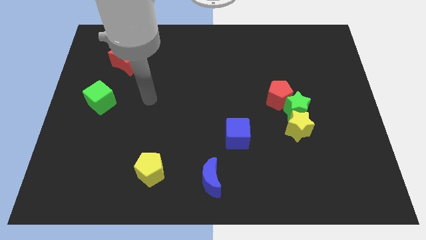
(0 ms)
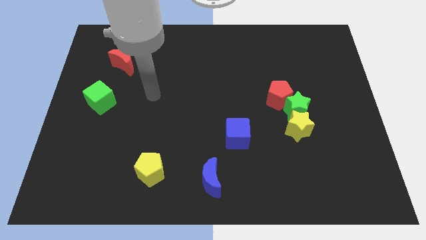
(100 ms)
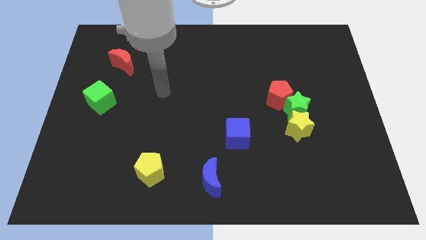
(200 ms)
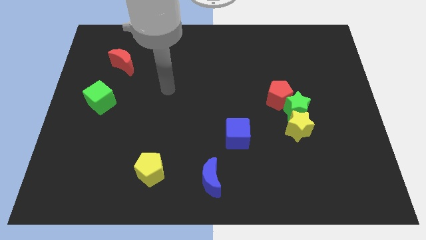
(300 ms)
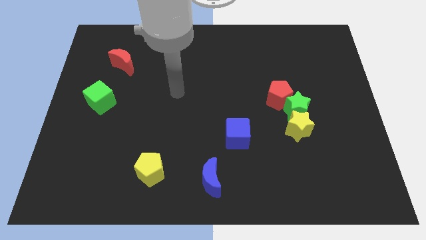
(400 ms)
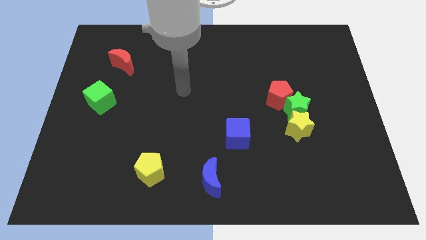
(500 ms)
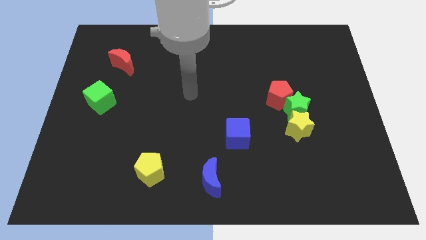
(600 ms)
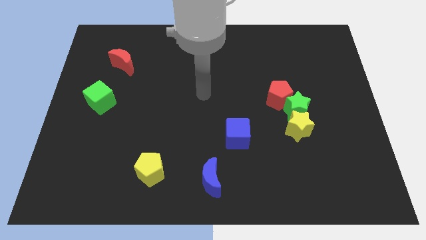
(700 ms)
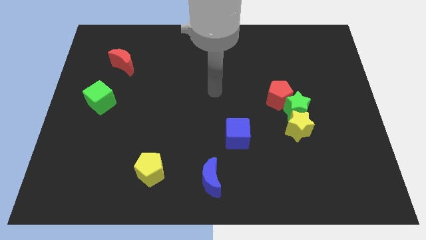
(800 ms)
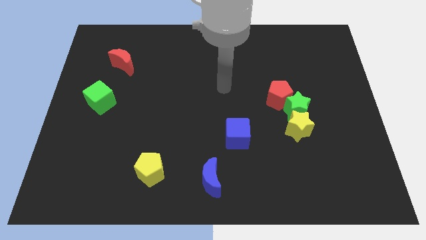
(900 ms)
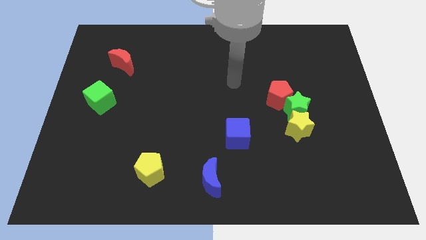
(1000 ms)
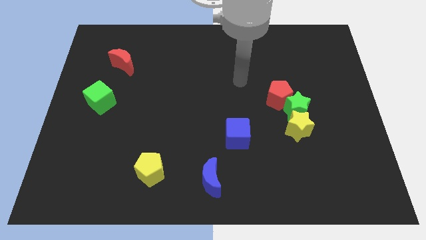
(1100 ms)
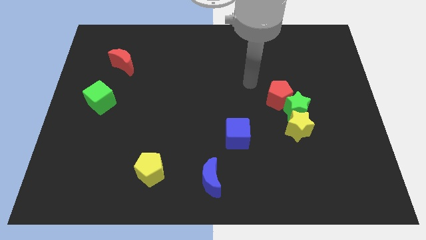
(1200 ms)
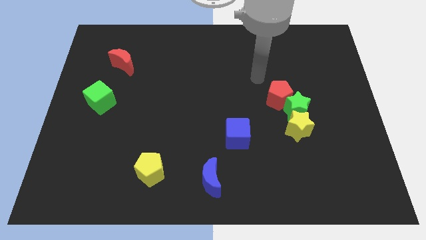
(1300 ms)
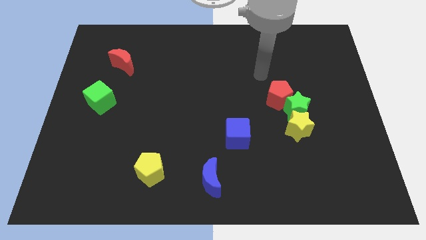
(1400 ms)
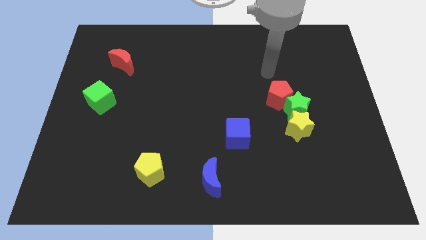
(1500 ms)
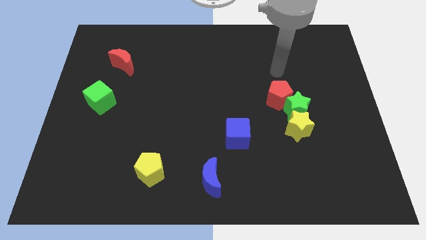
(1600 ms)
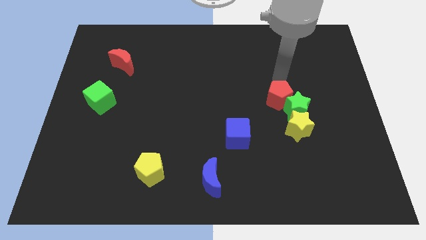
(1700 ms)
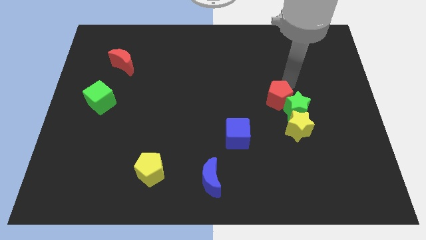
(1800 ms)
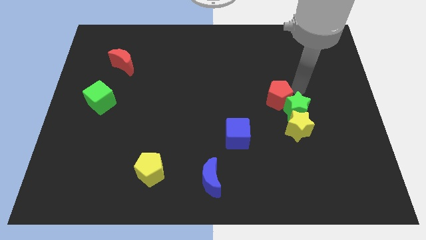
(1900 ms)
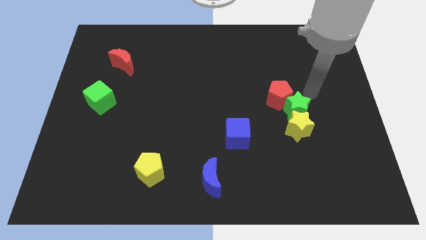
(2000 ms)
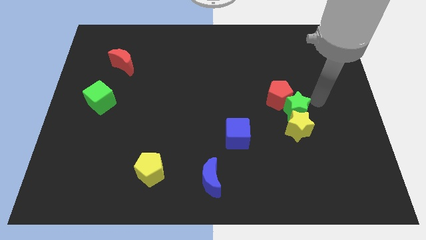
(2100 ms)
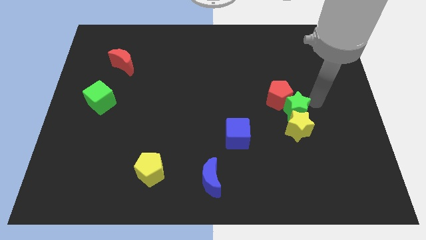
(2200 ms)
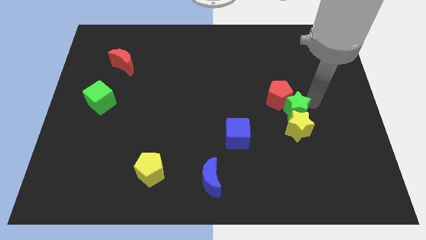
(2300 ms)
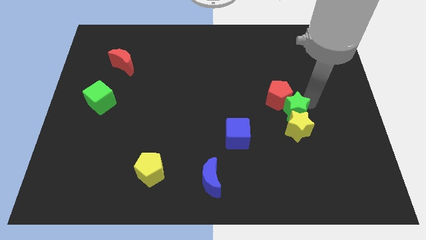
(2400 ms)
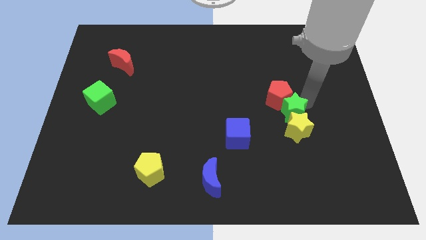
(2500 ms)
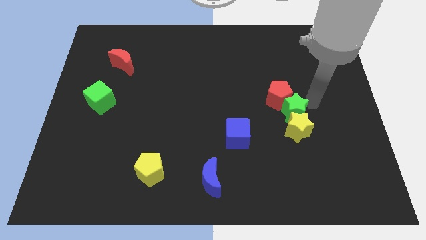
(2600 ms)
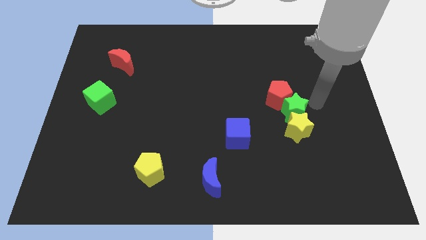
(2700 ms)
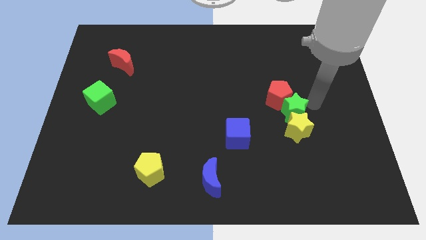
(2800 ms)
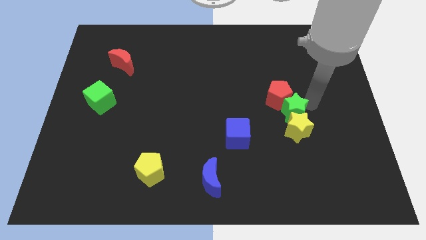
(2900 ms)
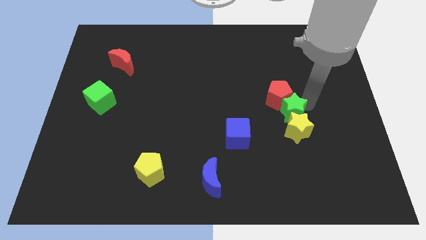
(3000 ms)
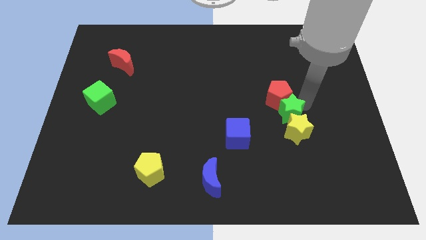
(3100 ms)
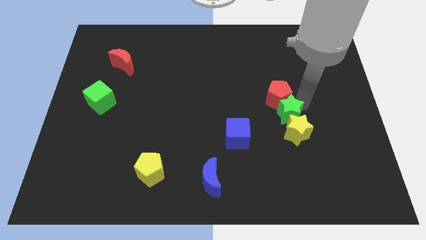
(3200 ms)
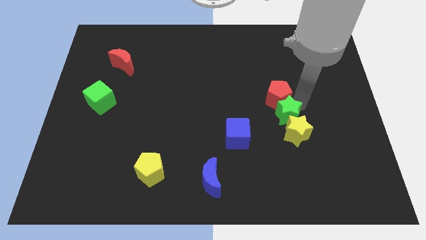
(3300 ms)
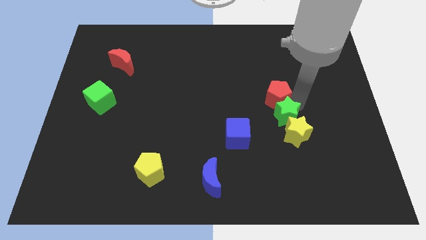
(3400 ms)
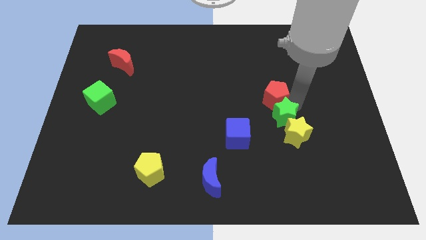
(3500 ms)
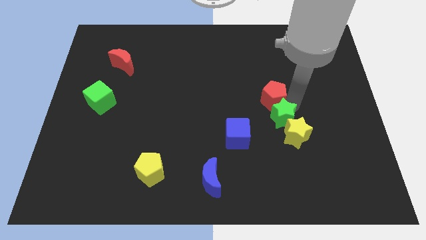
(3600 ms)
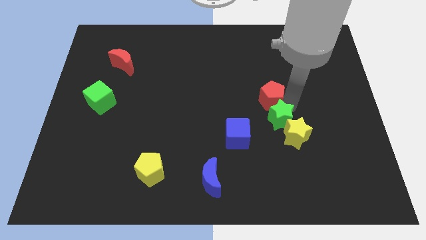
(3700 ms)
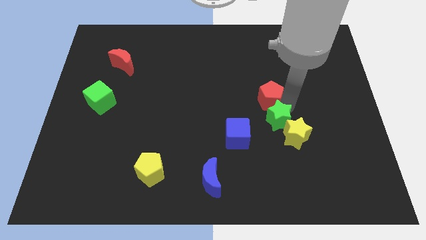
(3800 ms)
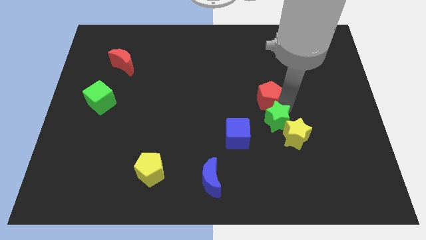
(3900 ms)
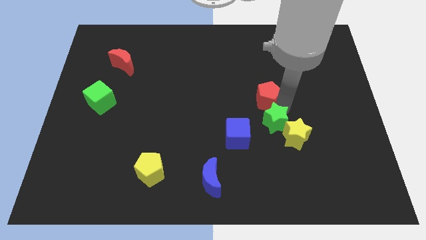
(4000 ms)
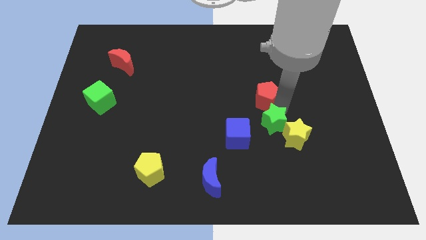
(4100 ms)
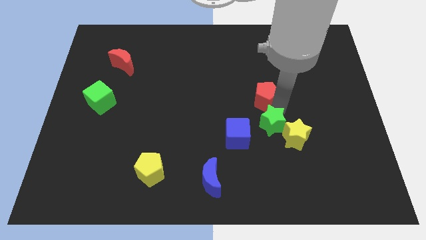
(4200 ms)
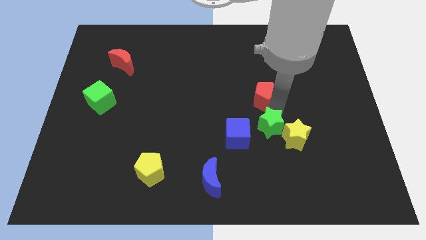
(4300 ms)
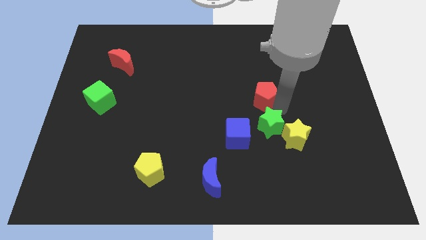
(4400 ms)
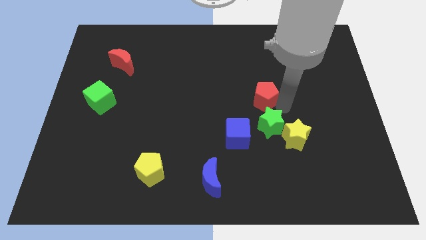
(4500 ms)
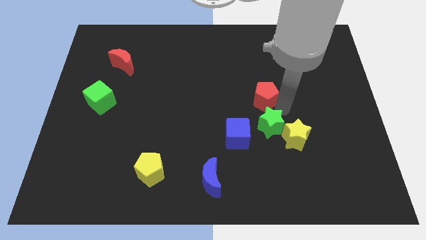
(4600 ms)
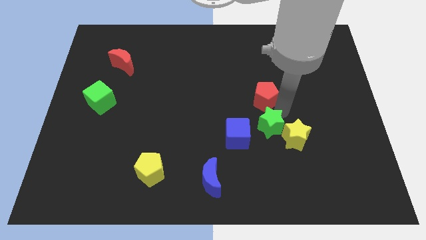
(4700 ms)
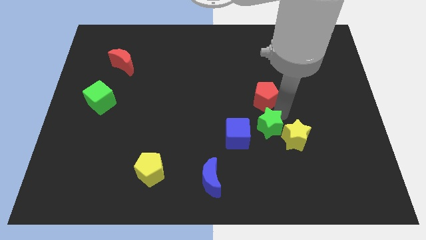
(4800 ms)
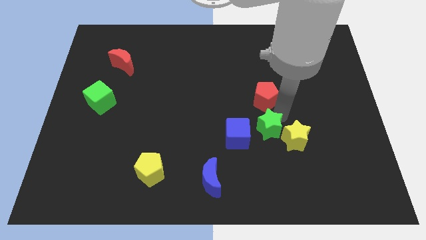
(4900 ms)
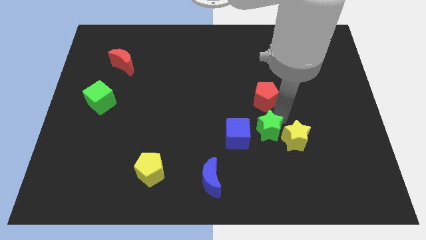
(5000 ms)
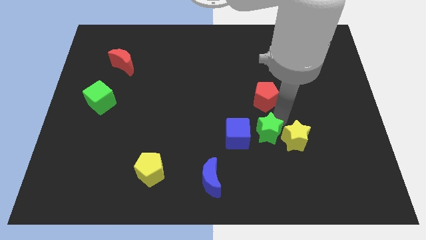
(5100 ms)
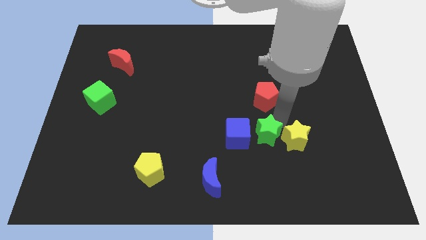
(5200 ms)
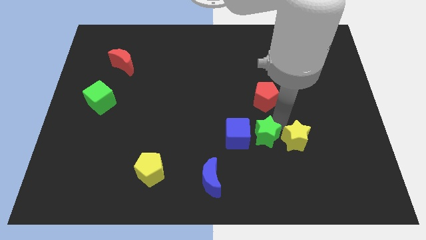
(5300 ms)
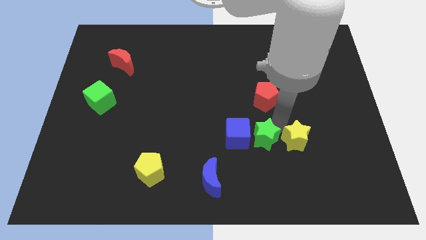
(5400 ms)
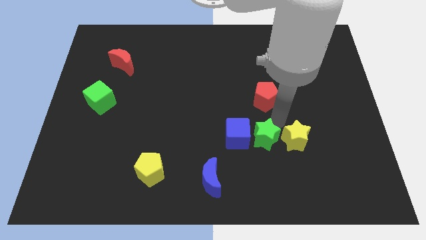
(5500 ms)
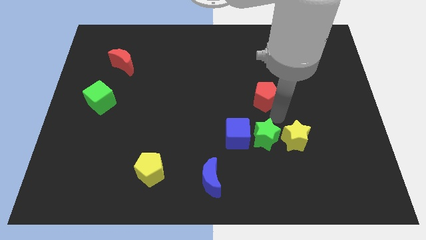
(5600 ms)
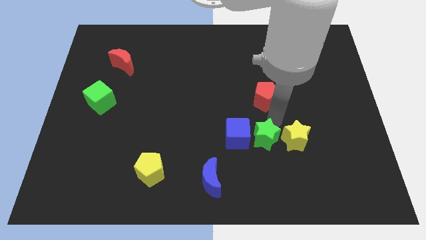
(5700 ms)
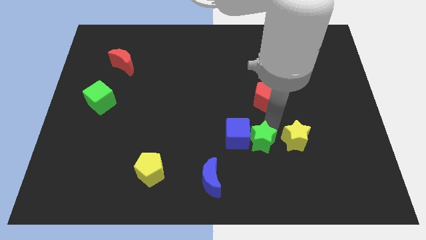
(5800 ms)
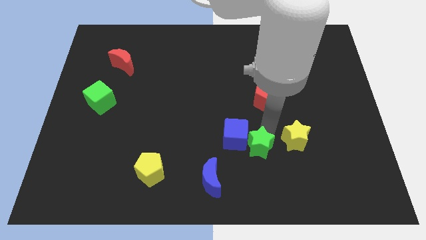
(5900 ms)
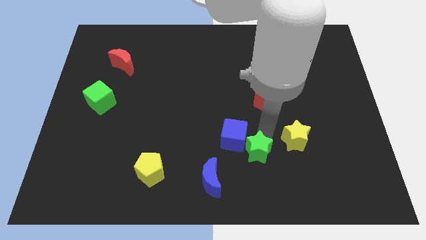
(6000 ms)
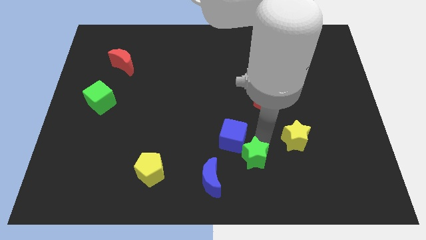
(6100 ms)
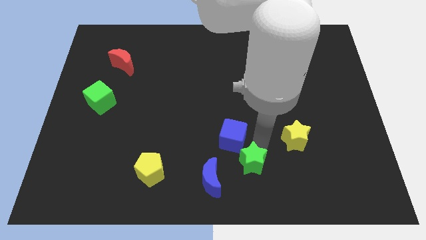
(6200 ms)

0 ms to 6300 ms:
push the green star to the bottom

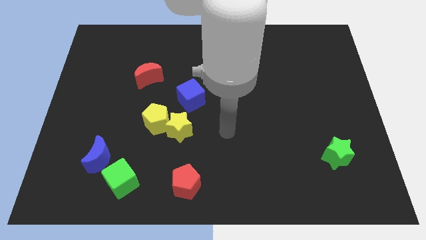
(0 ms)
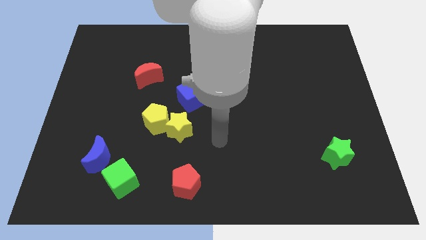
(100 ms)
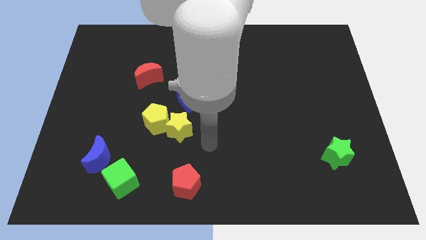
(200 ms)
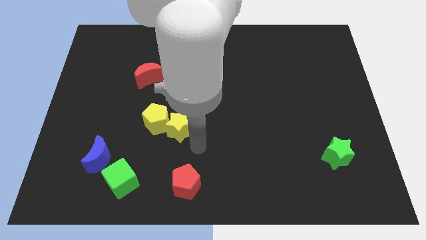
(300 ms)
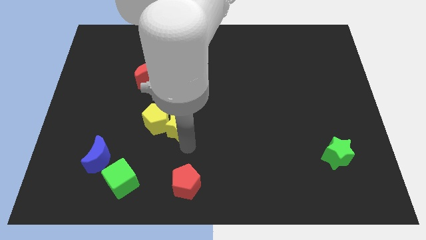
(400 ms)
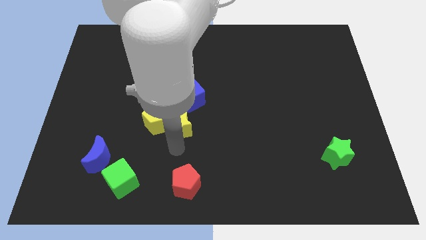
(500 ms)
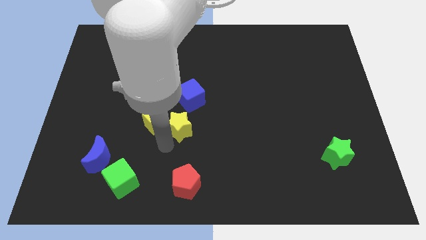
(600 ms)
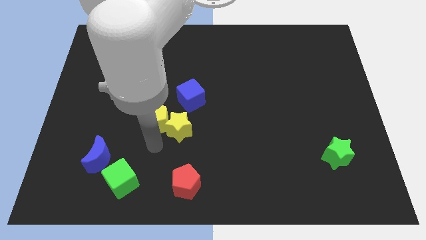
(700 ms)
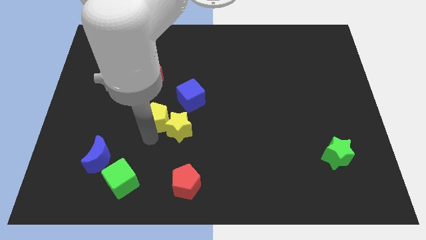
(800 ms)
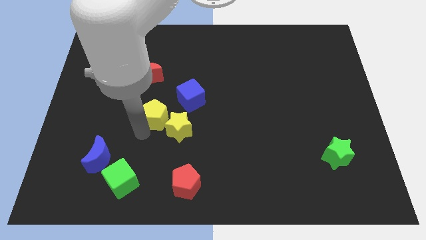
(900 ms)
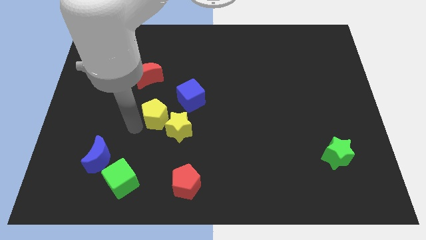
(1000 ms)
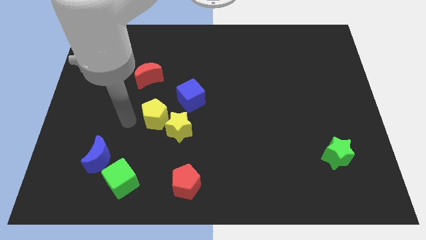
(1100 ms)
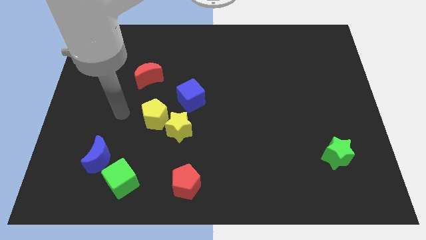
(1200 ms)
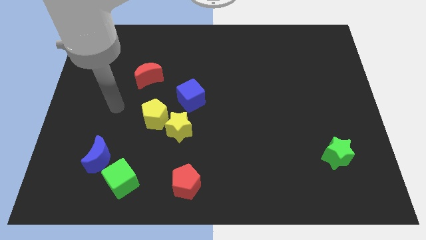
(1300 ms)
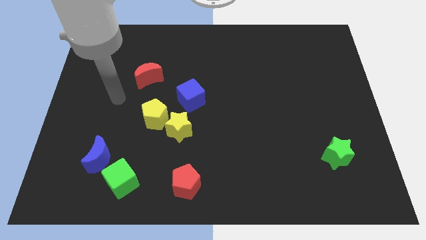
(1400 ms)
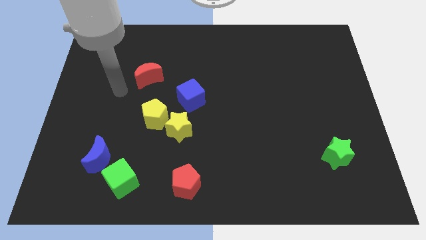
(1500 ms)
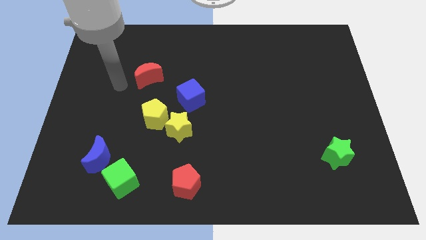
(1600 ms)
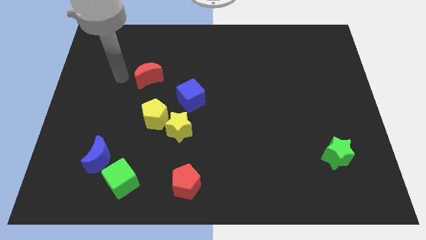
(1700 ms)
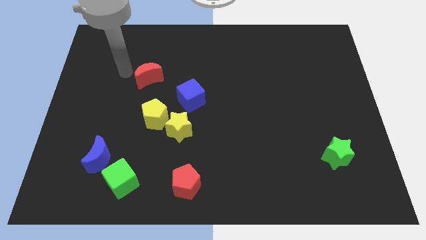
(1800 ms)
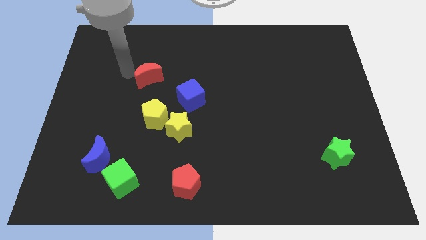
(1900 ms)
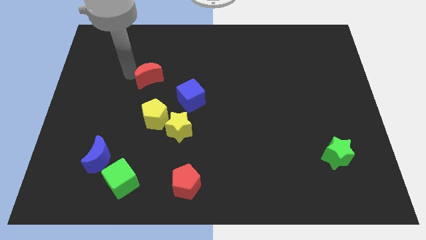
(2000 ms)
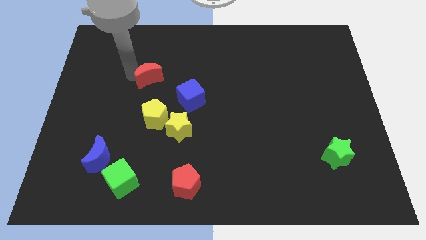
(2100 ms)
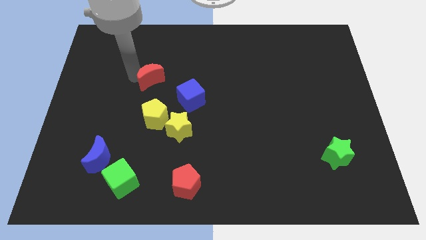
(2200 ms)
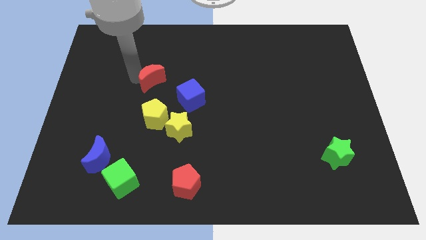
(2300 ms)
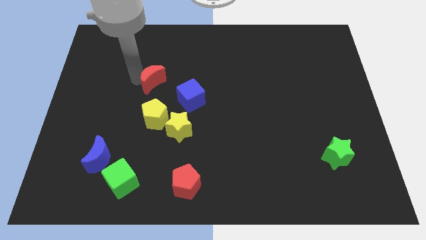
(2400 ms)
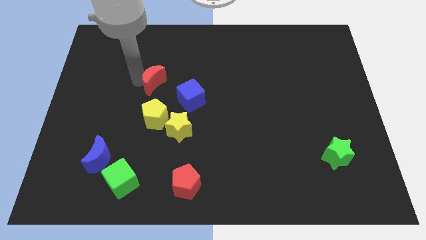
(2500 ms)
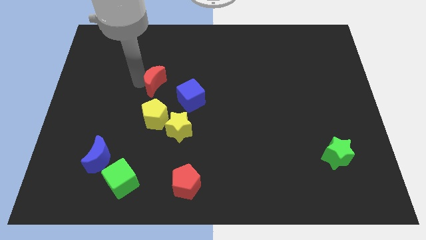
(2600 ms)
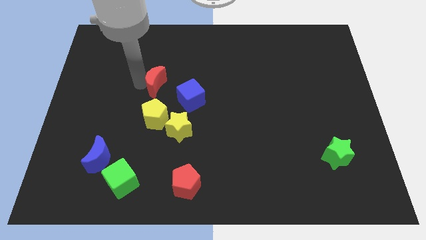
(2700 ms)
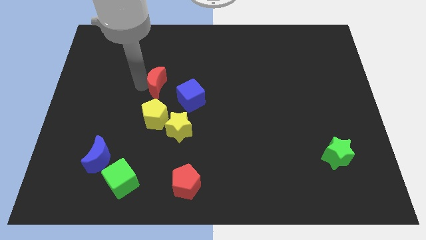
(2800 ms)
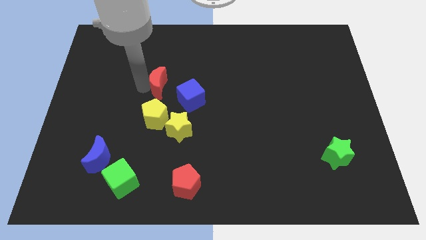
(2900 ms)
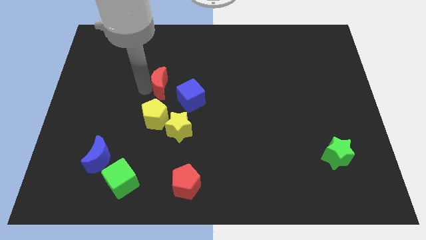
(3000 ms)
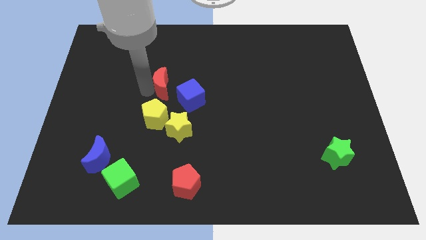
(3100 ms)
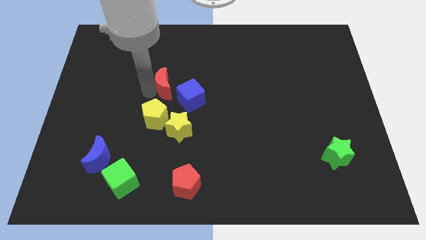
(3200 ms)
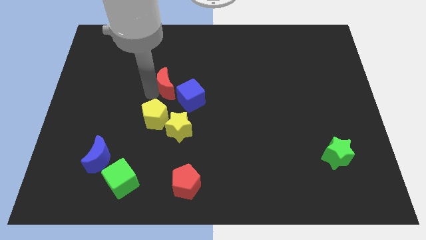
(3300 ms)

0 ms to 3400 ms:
put the red moon to the middle of the board
